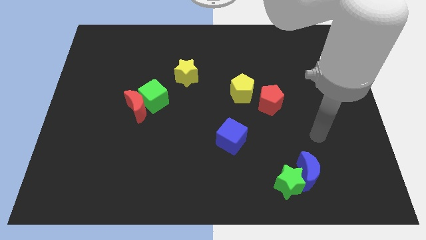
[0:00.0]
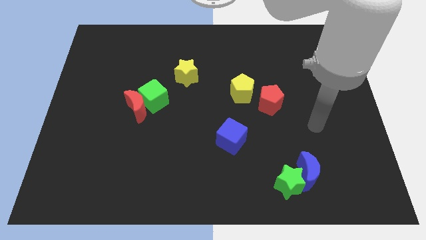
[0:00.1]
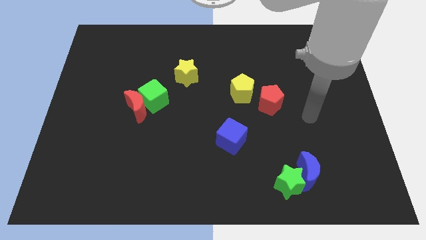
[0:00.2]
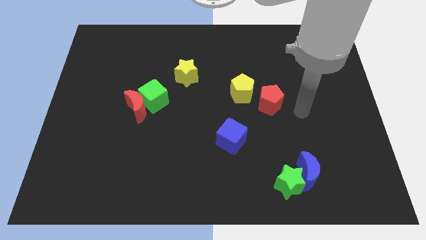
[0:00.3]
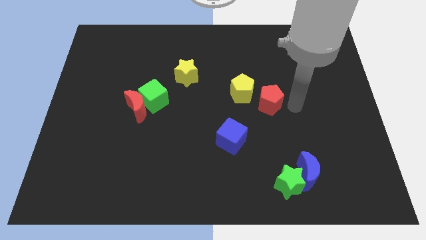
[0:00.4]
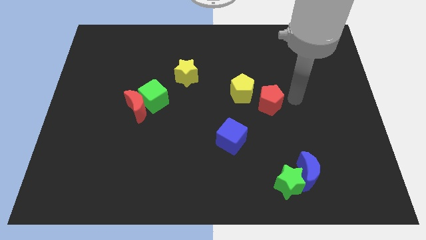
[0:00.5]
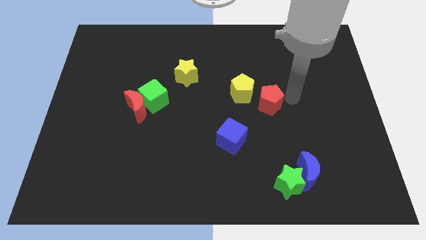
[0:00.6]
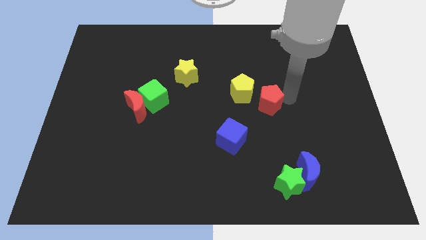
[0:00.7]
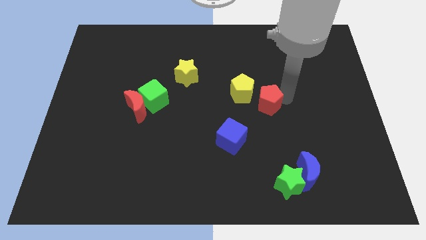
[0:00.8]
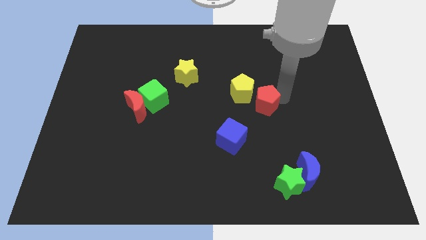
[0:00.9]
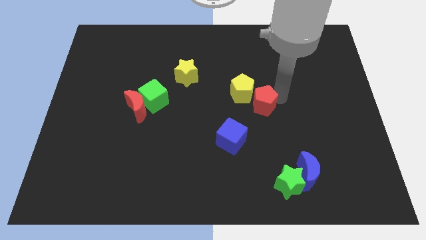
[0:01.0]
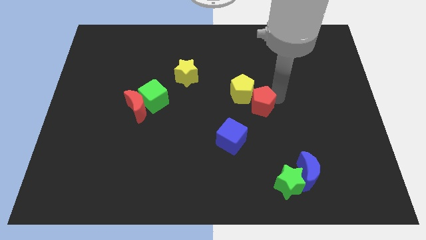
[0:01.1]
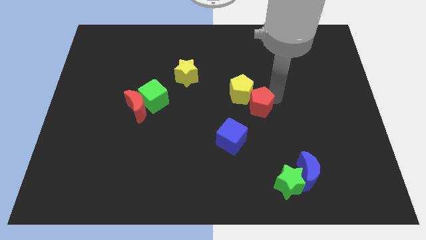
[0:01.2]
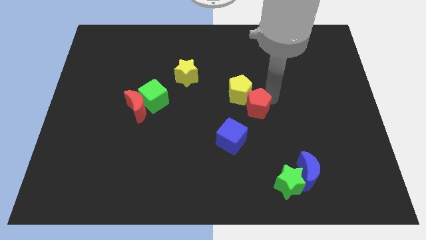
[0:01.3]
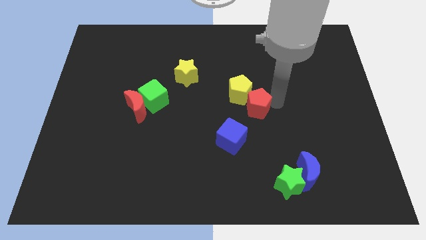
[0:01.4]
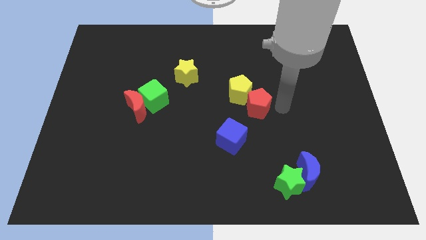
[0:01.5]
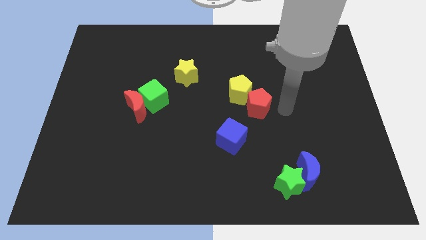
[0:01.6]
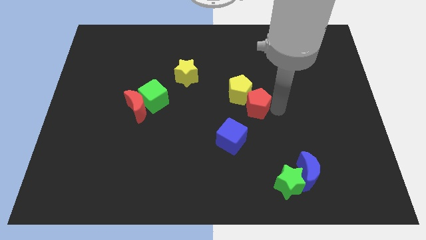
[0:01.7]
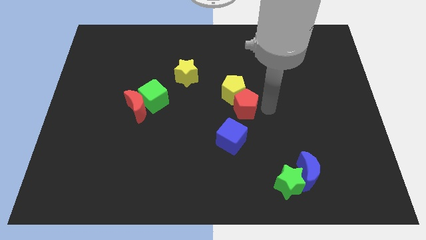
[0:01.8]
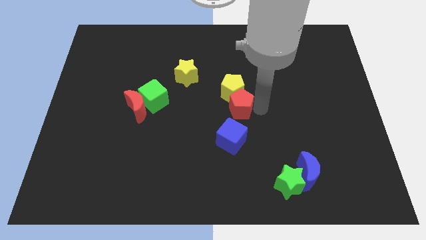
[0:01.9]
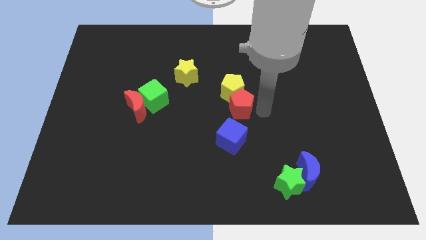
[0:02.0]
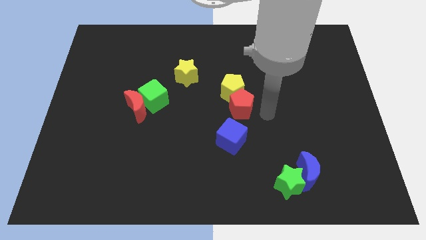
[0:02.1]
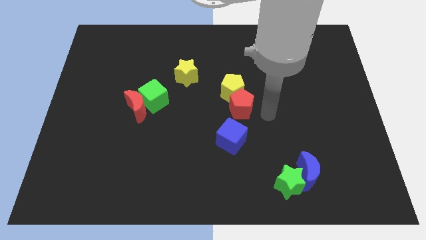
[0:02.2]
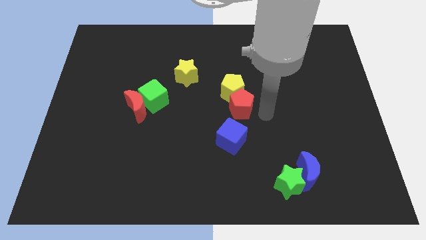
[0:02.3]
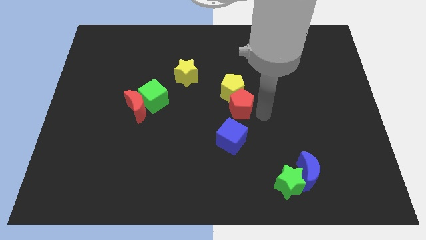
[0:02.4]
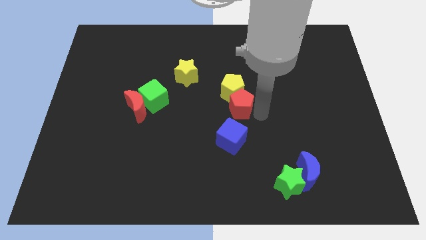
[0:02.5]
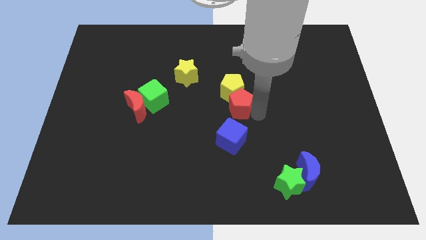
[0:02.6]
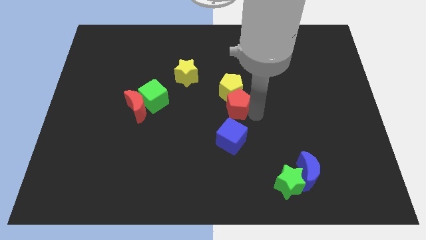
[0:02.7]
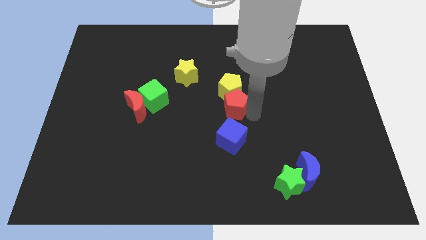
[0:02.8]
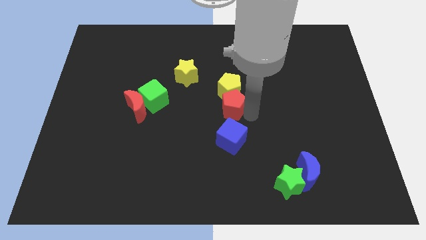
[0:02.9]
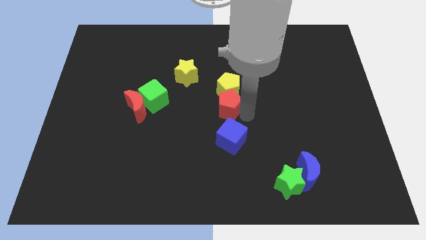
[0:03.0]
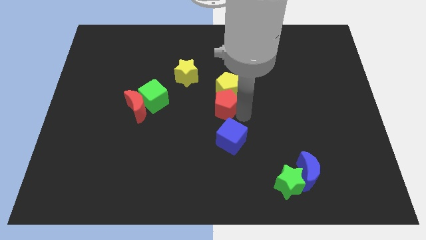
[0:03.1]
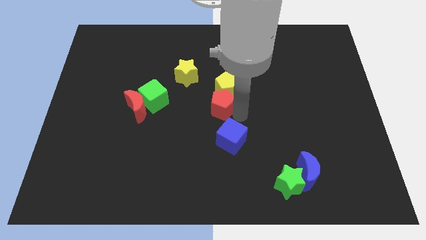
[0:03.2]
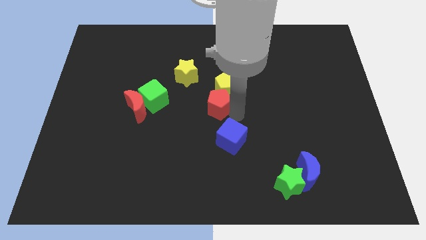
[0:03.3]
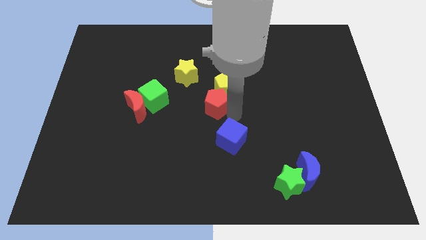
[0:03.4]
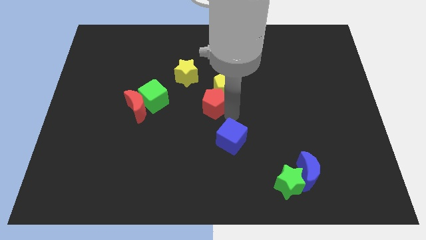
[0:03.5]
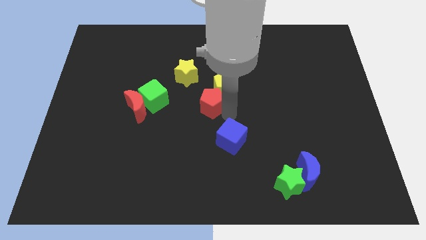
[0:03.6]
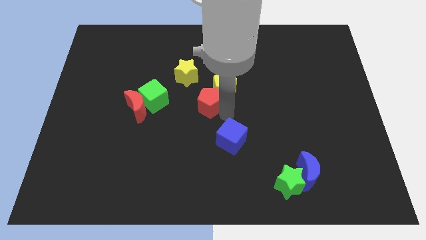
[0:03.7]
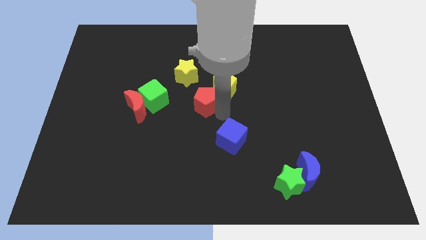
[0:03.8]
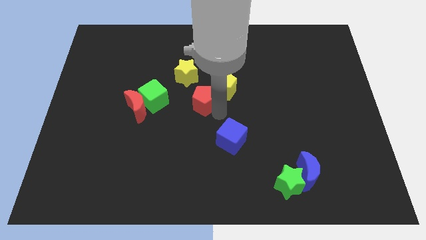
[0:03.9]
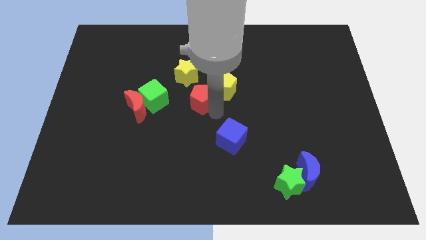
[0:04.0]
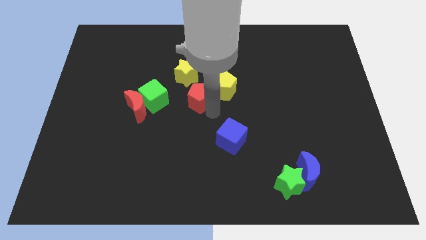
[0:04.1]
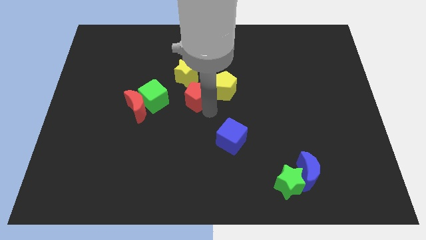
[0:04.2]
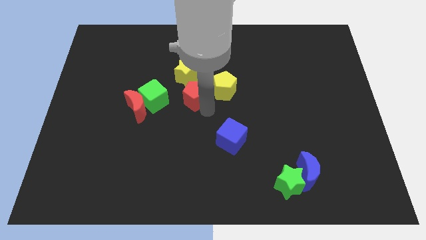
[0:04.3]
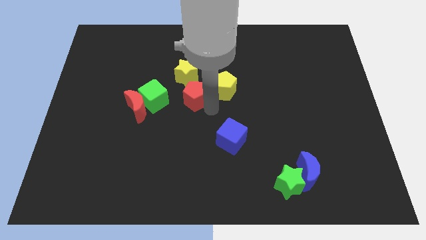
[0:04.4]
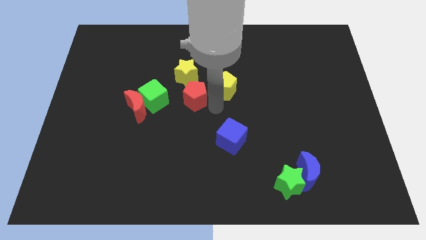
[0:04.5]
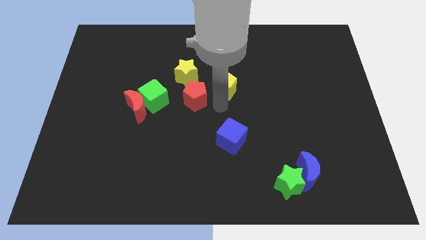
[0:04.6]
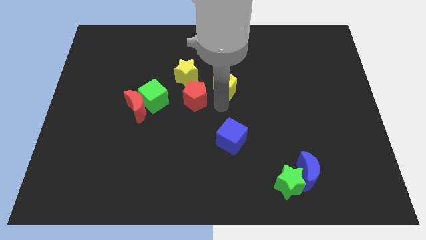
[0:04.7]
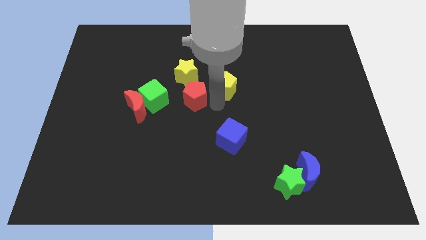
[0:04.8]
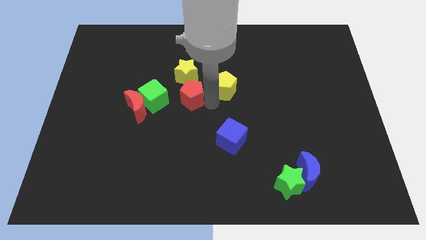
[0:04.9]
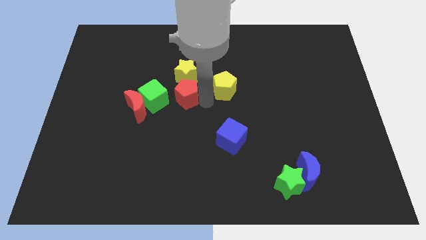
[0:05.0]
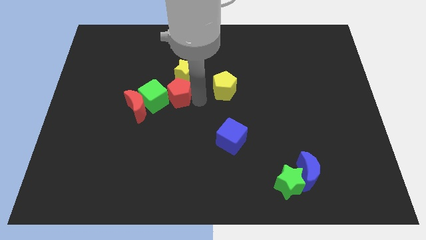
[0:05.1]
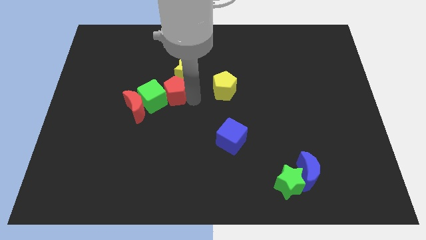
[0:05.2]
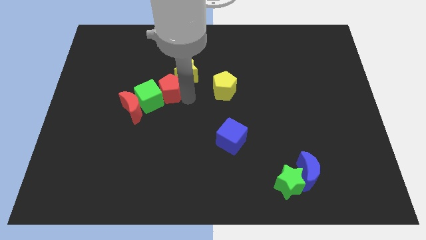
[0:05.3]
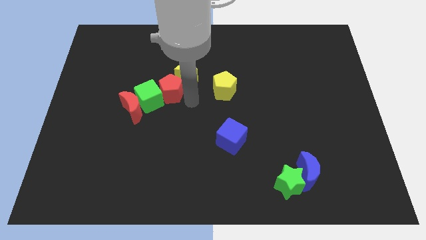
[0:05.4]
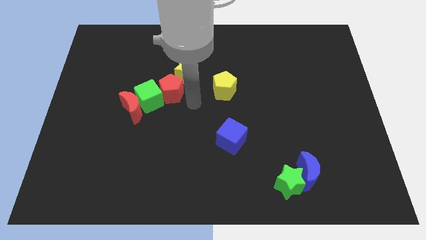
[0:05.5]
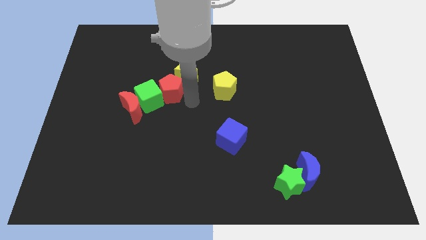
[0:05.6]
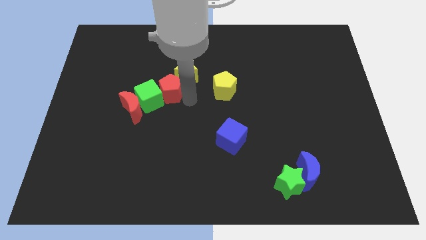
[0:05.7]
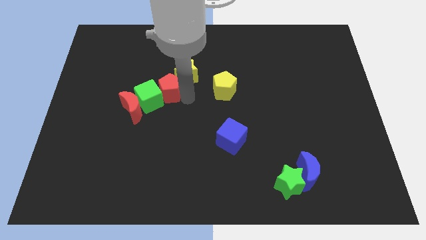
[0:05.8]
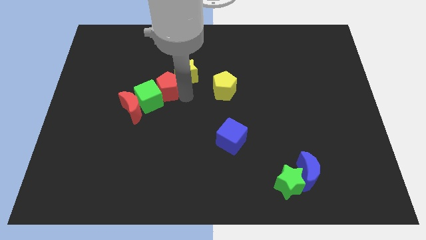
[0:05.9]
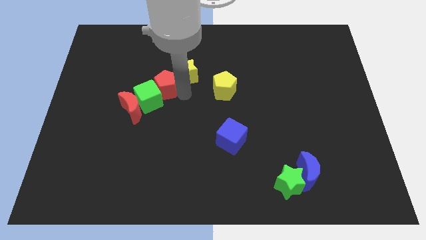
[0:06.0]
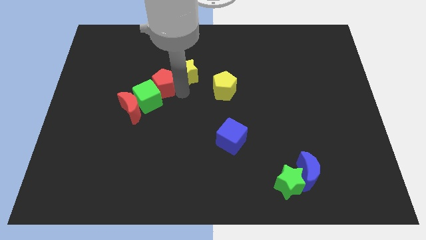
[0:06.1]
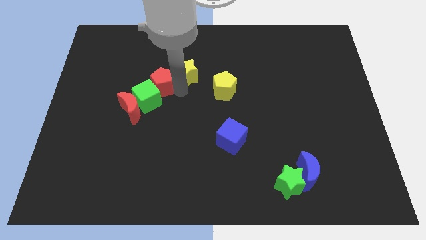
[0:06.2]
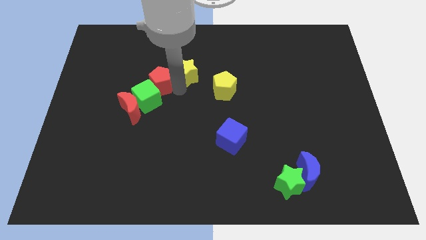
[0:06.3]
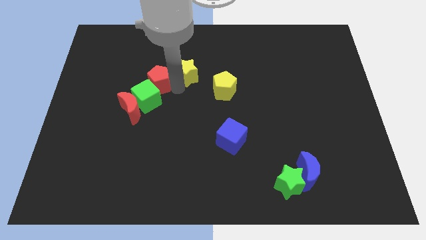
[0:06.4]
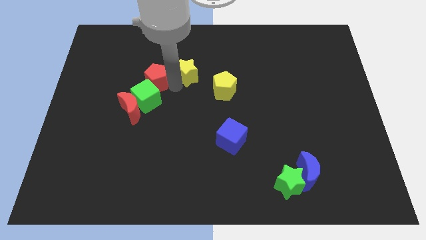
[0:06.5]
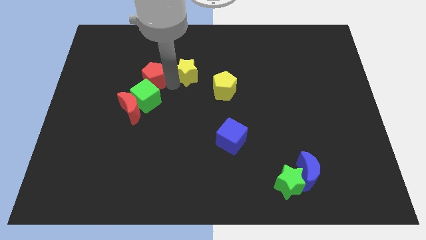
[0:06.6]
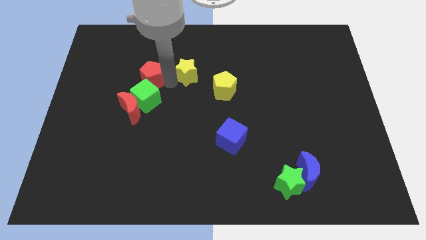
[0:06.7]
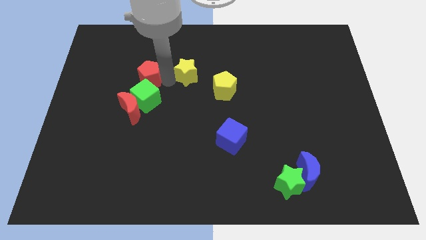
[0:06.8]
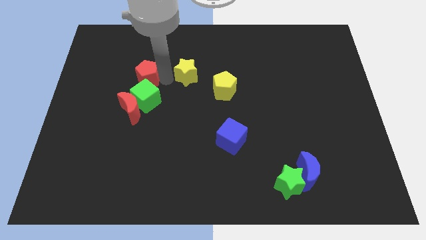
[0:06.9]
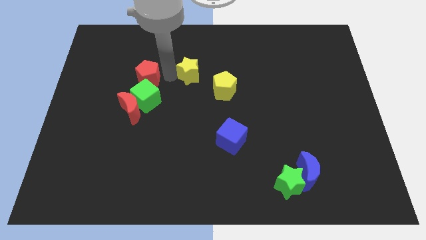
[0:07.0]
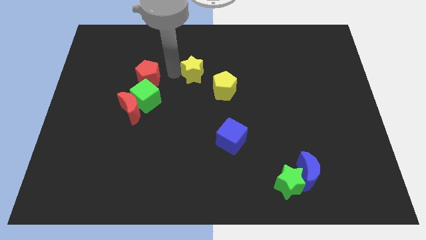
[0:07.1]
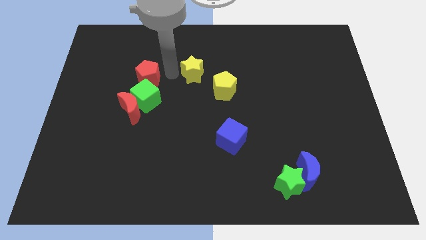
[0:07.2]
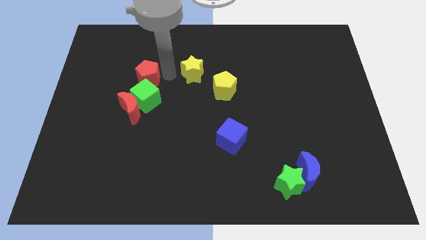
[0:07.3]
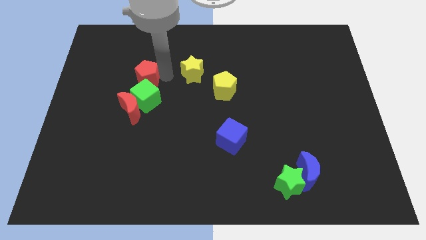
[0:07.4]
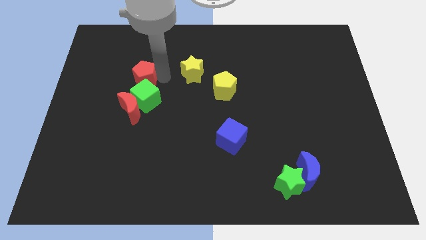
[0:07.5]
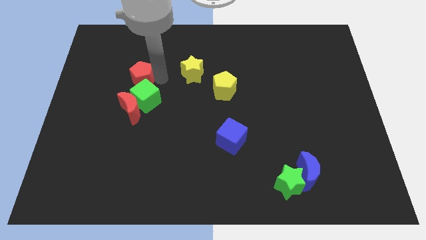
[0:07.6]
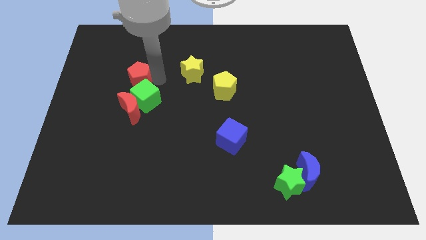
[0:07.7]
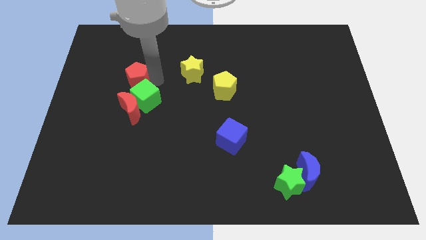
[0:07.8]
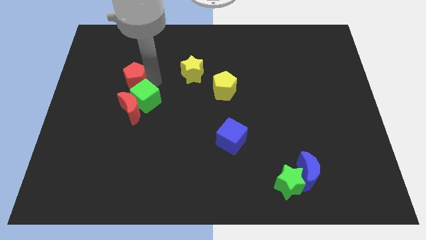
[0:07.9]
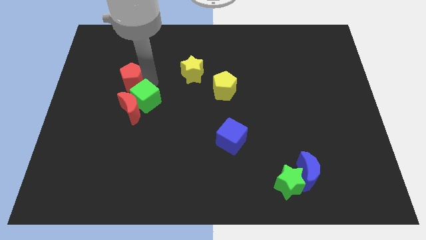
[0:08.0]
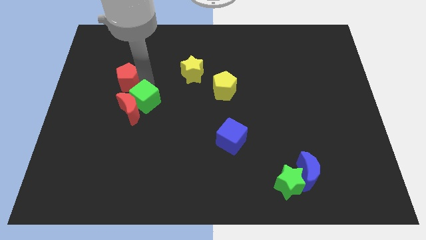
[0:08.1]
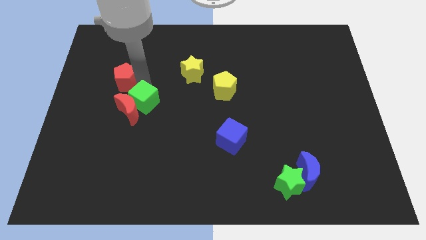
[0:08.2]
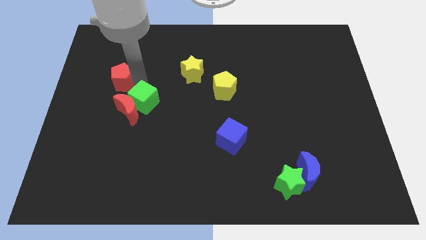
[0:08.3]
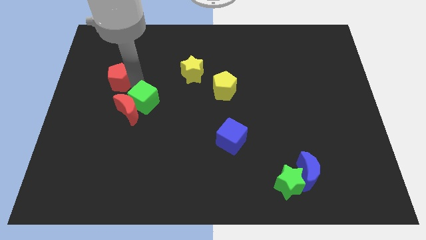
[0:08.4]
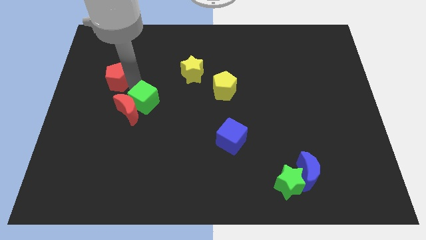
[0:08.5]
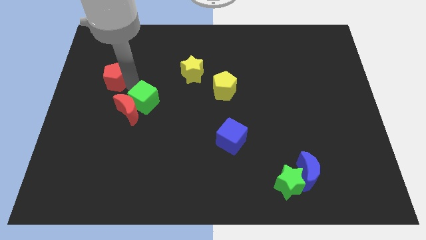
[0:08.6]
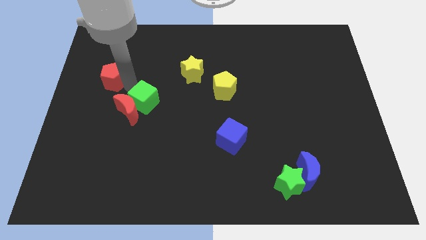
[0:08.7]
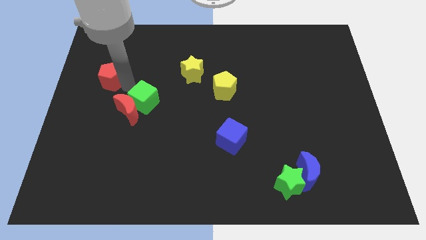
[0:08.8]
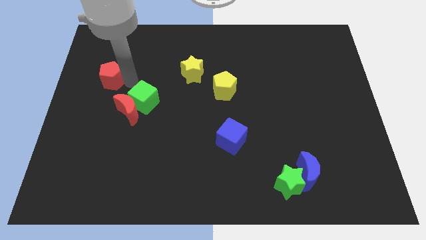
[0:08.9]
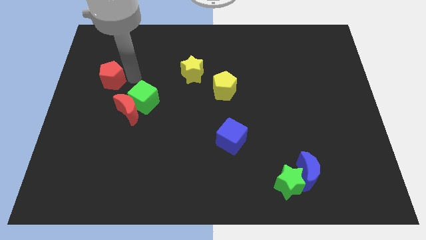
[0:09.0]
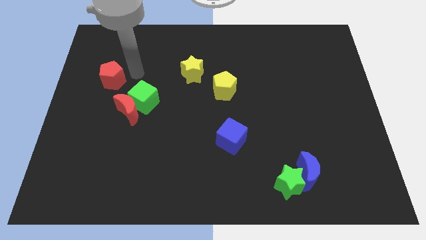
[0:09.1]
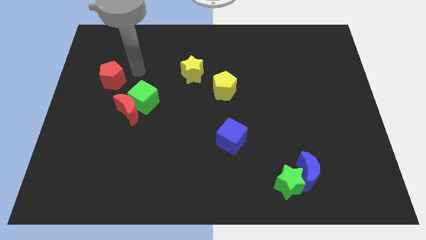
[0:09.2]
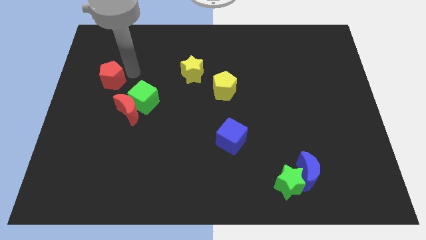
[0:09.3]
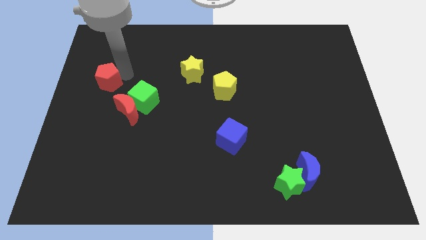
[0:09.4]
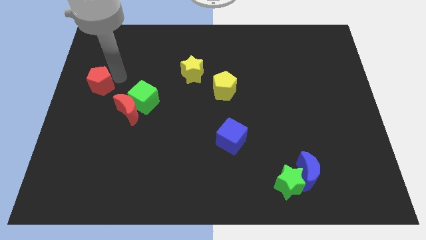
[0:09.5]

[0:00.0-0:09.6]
push the red pentagon to the left side
